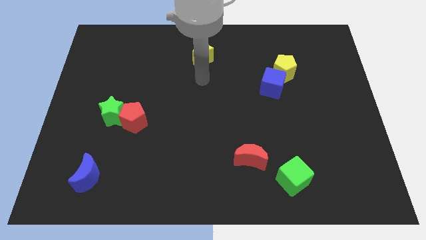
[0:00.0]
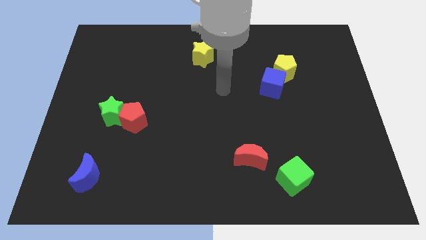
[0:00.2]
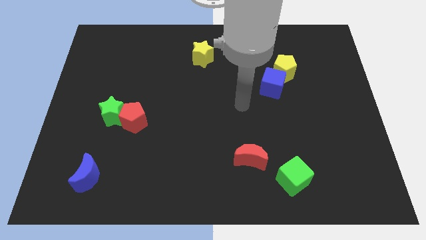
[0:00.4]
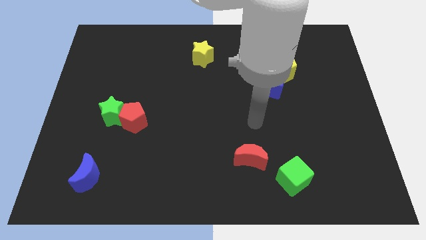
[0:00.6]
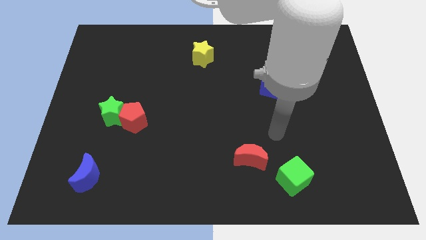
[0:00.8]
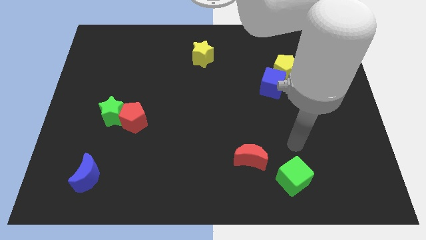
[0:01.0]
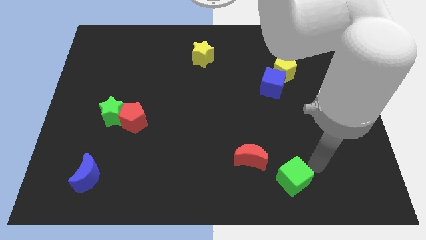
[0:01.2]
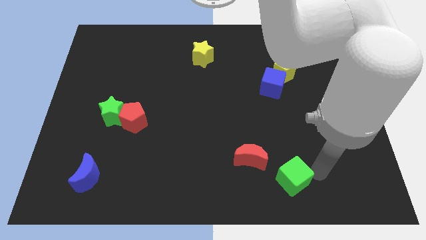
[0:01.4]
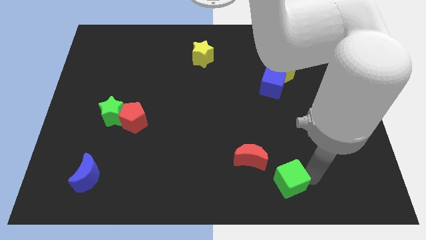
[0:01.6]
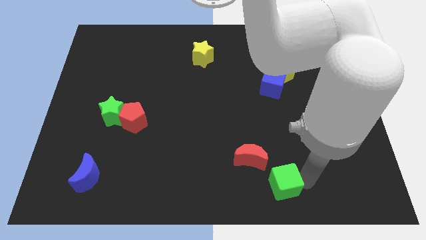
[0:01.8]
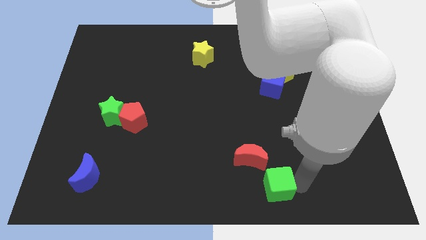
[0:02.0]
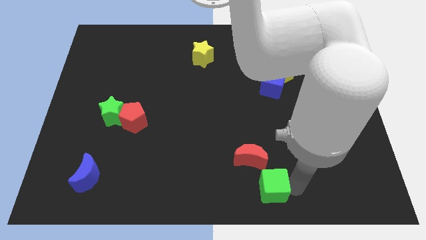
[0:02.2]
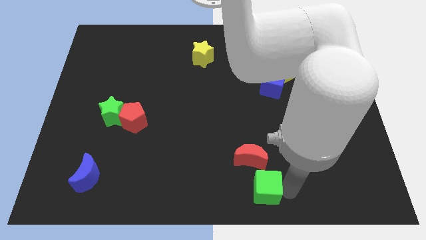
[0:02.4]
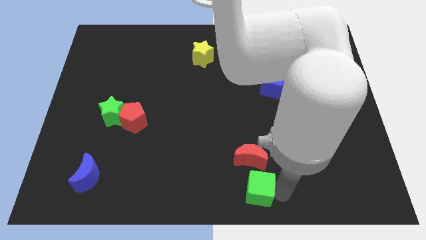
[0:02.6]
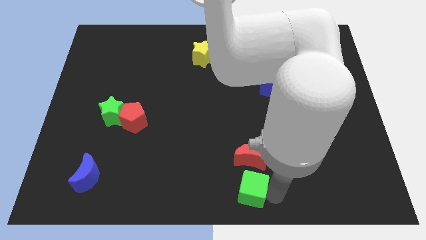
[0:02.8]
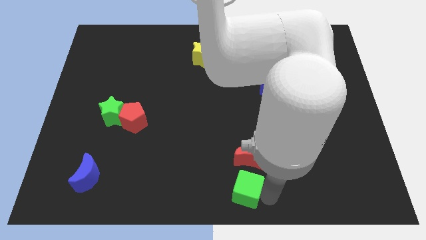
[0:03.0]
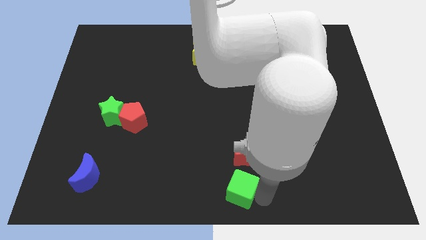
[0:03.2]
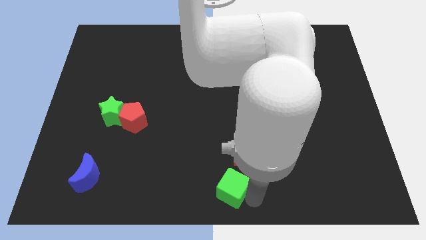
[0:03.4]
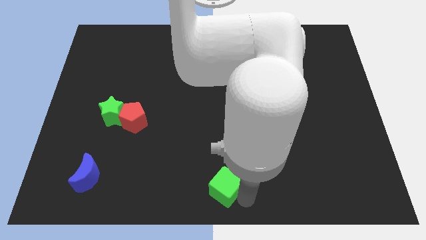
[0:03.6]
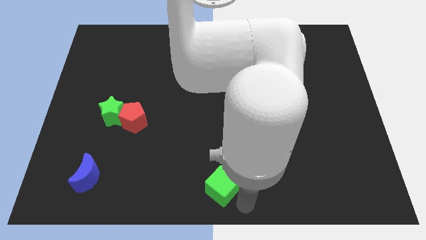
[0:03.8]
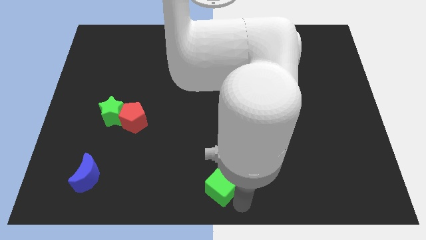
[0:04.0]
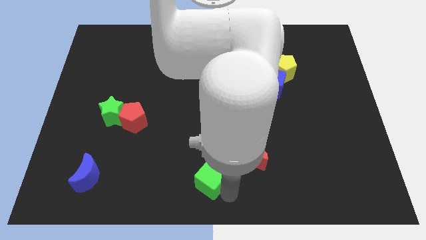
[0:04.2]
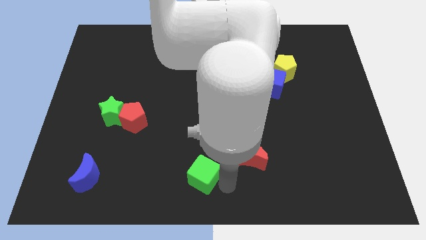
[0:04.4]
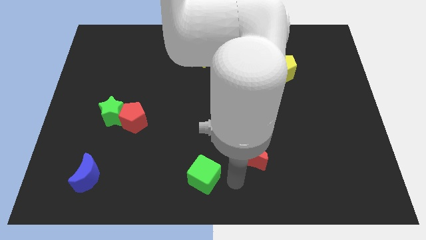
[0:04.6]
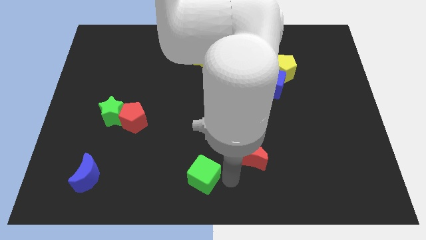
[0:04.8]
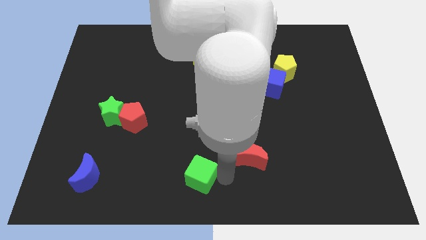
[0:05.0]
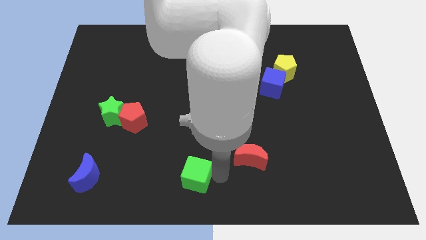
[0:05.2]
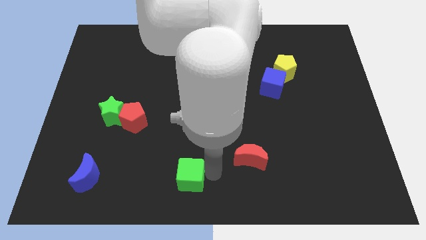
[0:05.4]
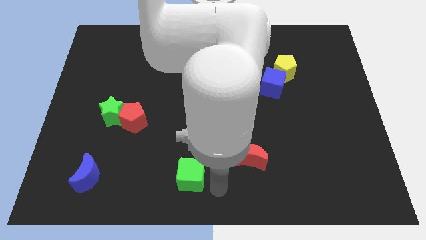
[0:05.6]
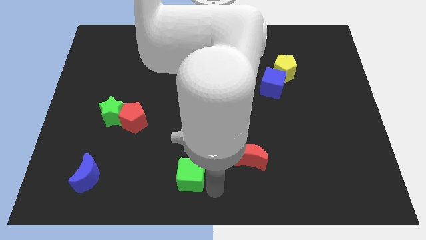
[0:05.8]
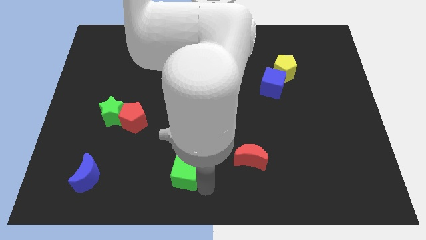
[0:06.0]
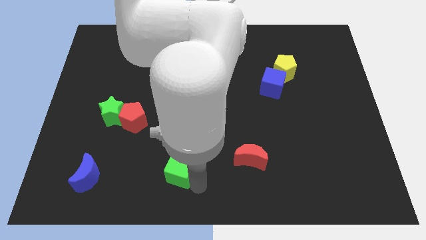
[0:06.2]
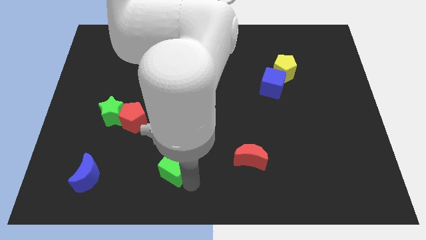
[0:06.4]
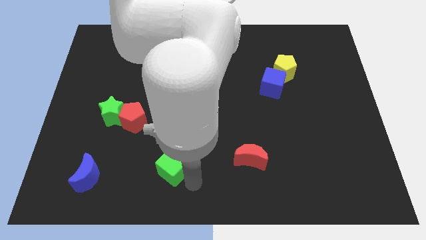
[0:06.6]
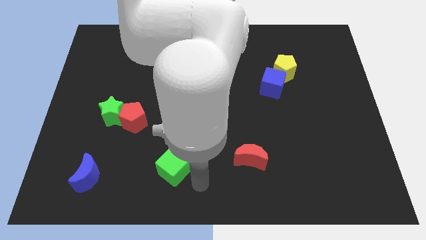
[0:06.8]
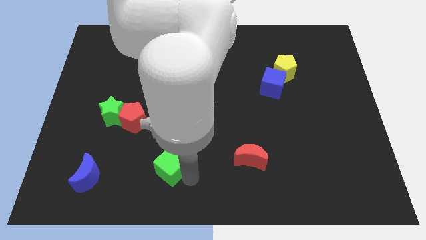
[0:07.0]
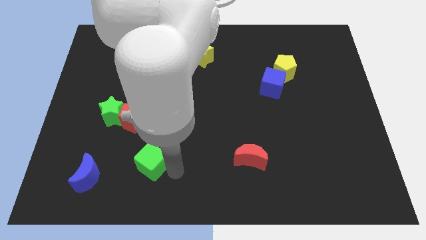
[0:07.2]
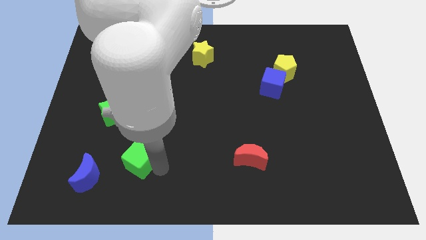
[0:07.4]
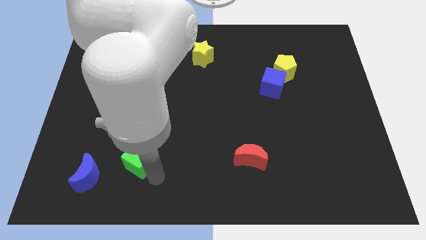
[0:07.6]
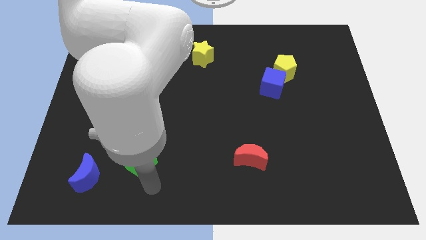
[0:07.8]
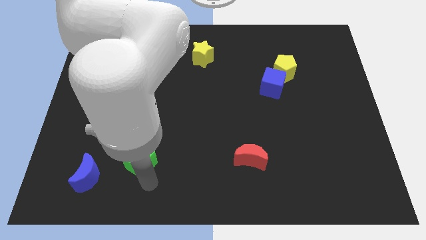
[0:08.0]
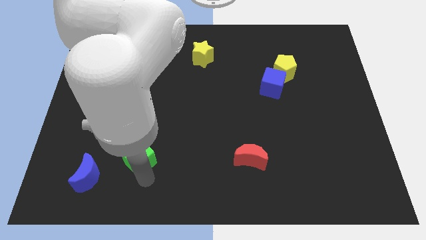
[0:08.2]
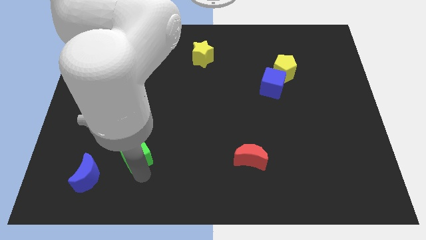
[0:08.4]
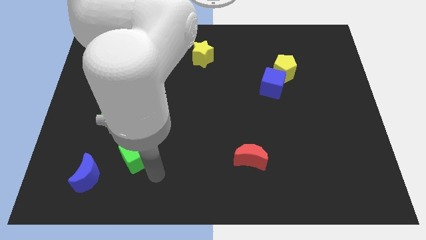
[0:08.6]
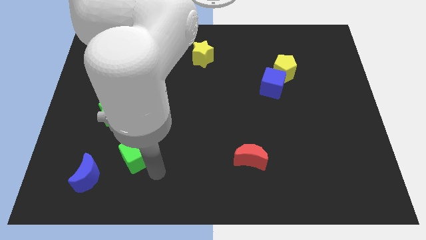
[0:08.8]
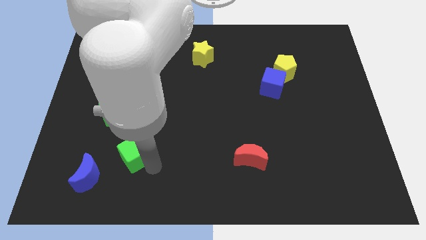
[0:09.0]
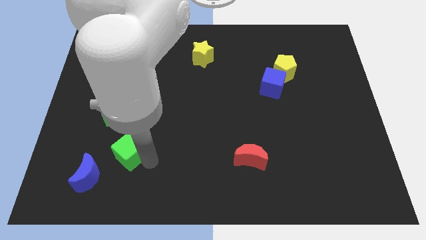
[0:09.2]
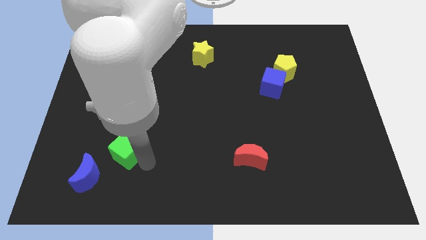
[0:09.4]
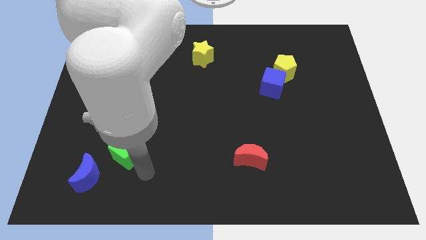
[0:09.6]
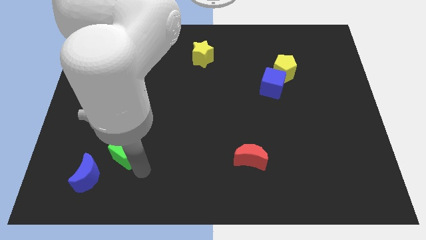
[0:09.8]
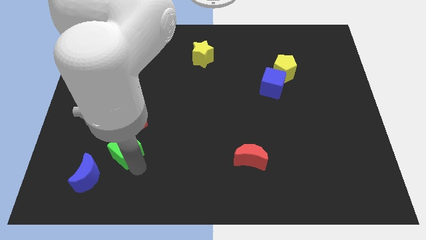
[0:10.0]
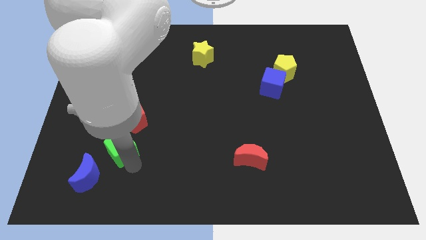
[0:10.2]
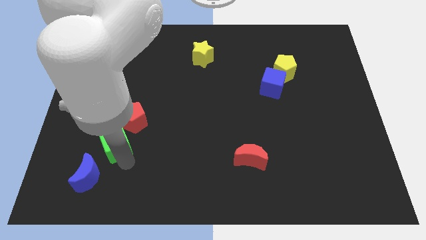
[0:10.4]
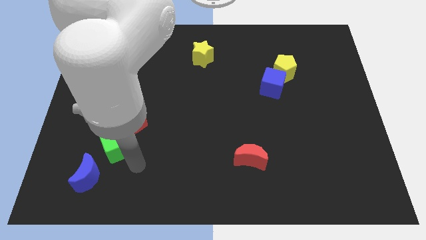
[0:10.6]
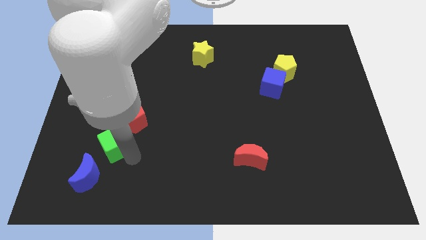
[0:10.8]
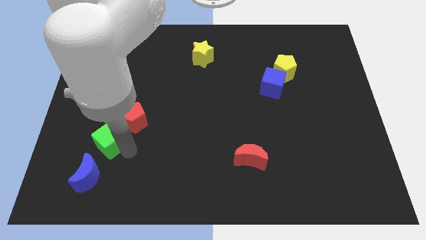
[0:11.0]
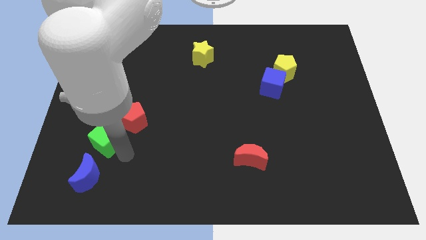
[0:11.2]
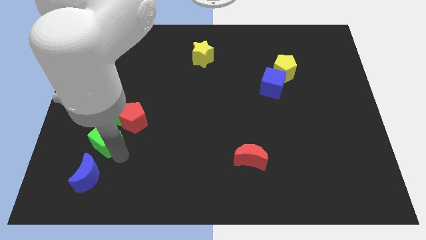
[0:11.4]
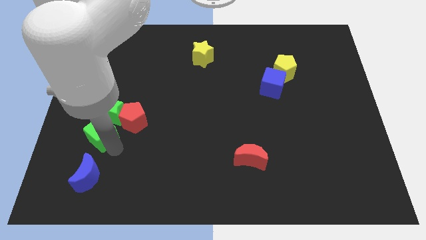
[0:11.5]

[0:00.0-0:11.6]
put the green cube to the left of the red pentagon

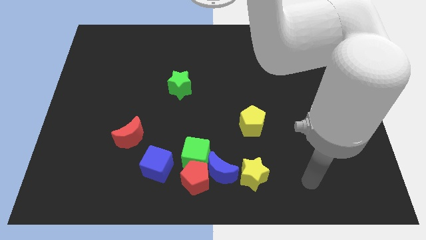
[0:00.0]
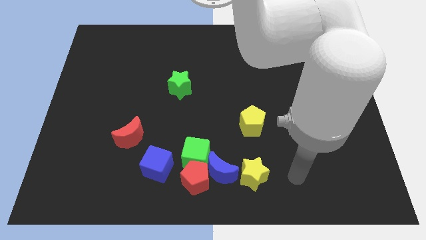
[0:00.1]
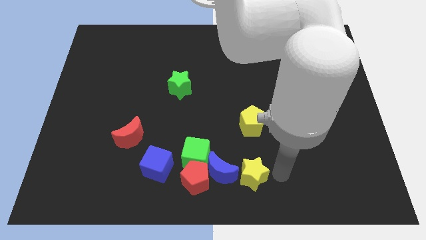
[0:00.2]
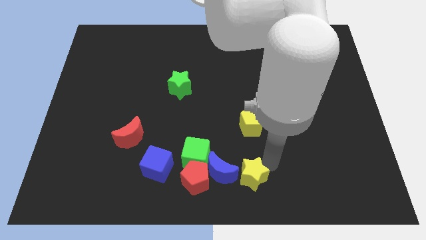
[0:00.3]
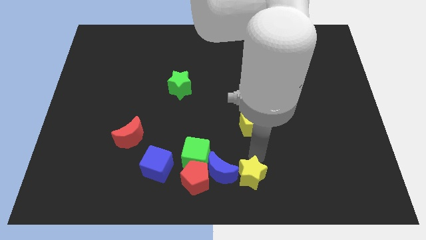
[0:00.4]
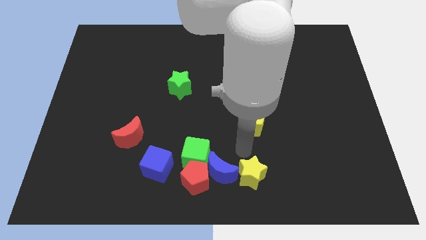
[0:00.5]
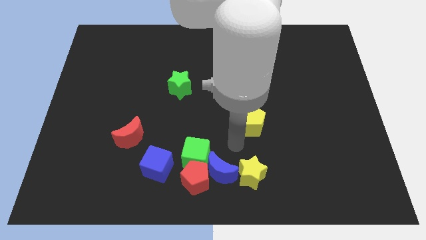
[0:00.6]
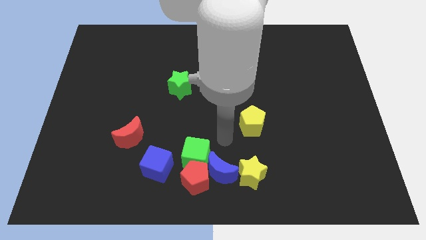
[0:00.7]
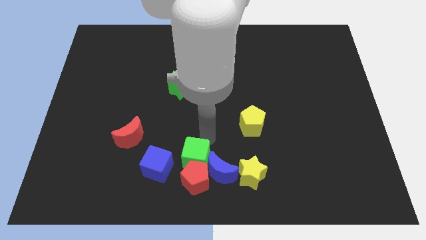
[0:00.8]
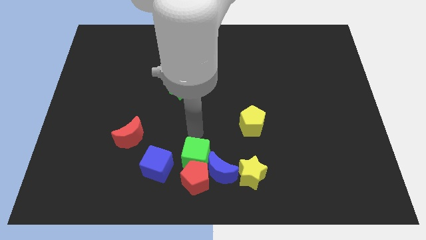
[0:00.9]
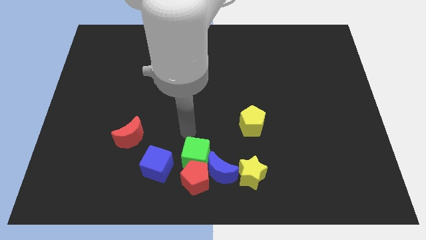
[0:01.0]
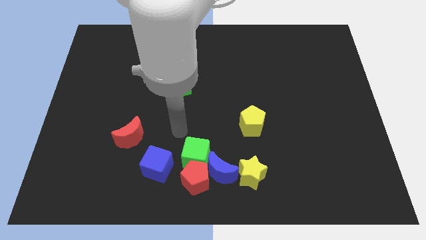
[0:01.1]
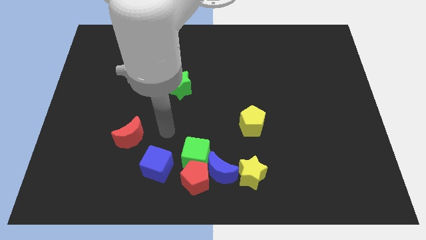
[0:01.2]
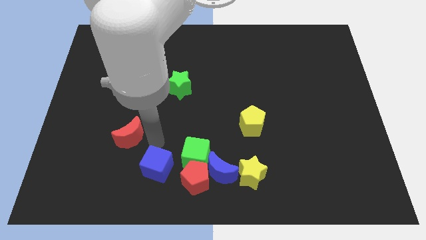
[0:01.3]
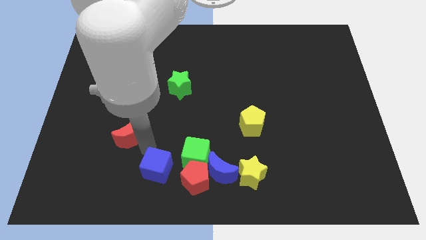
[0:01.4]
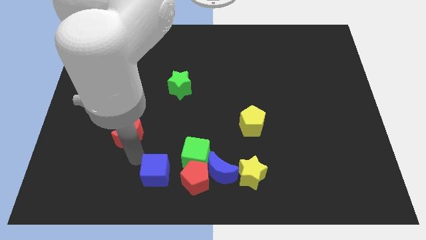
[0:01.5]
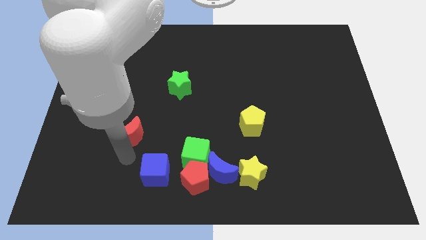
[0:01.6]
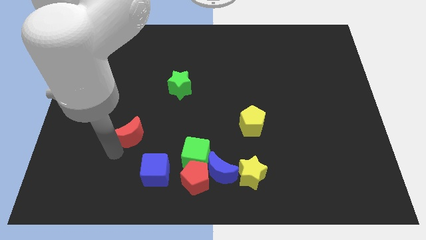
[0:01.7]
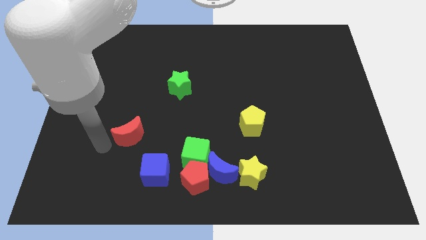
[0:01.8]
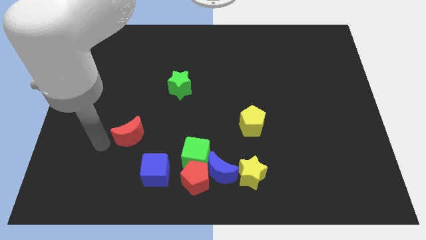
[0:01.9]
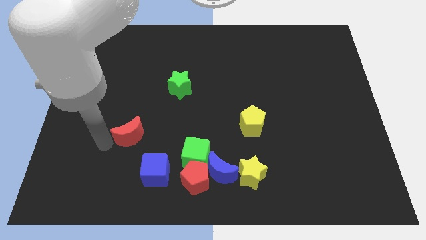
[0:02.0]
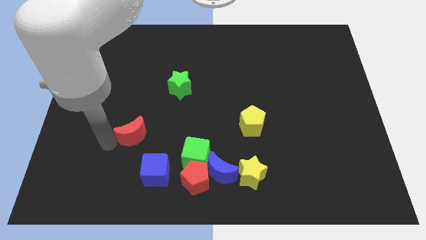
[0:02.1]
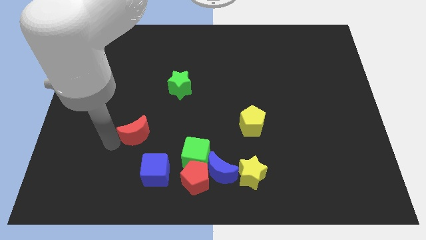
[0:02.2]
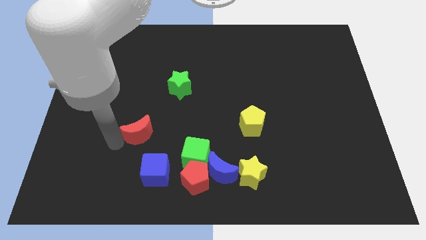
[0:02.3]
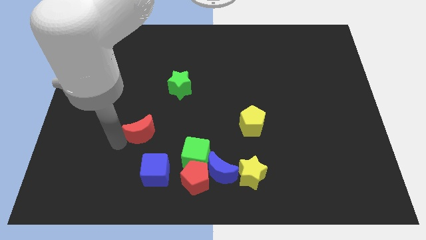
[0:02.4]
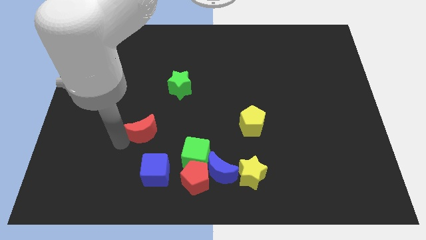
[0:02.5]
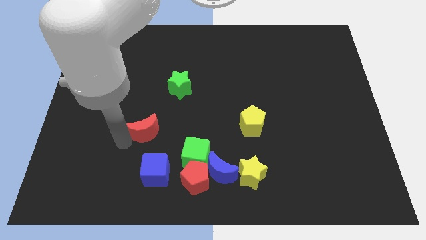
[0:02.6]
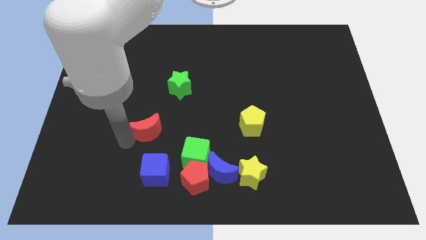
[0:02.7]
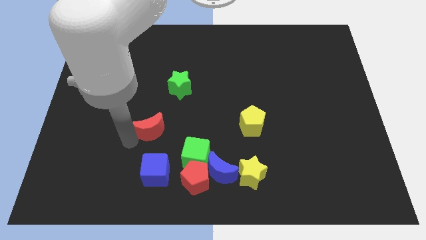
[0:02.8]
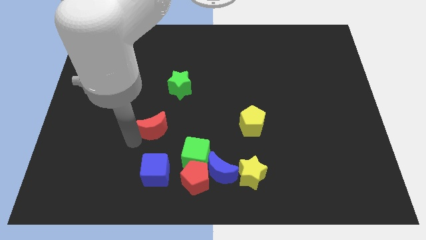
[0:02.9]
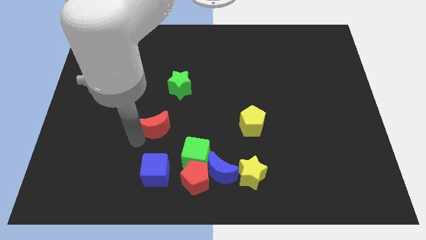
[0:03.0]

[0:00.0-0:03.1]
put the red moon below the green star
